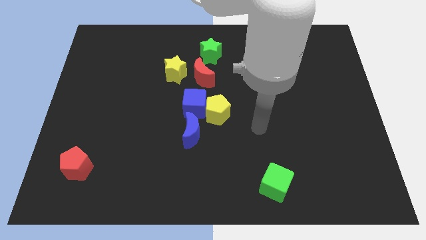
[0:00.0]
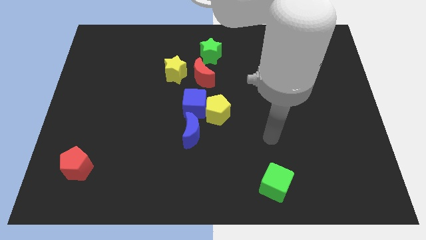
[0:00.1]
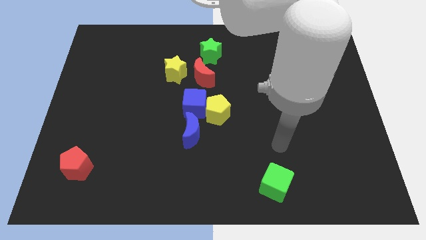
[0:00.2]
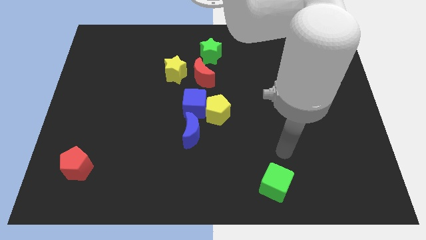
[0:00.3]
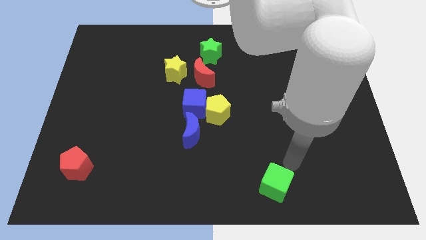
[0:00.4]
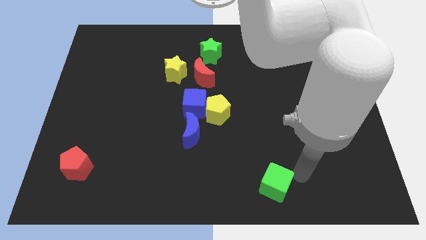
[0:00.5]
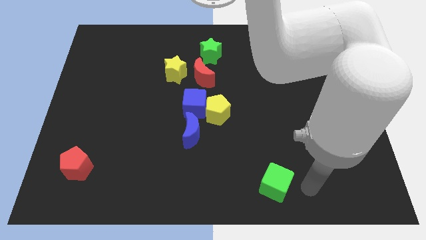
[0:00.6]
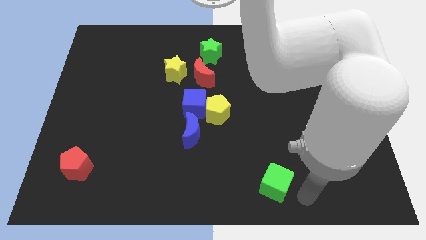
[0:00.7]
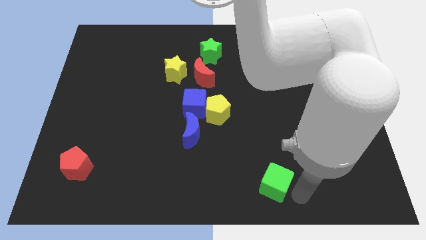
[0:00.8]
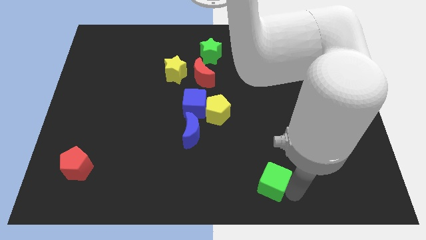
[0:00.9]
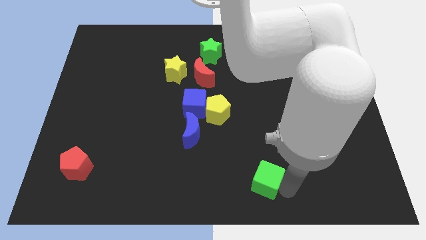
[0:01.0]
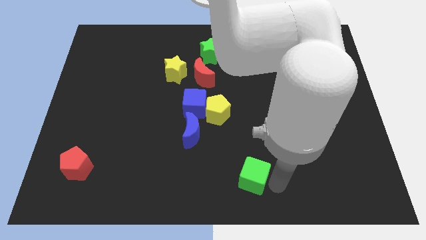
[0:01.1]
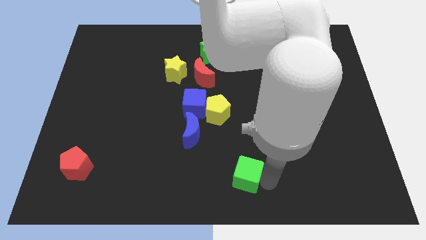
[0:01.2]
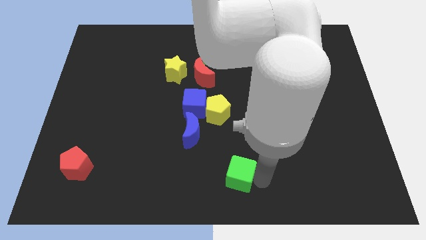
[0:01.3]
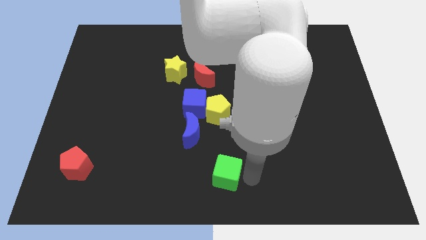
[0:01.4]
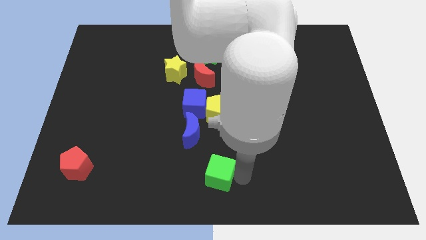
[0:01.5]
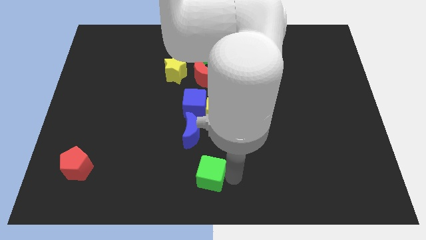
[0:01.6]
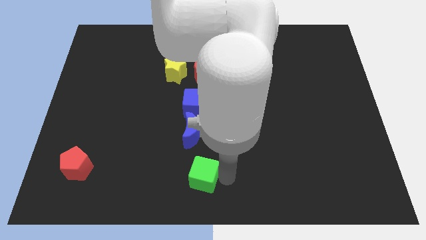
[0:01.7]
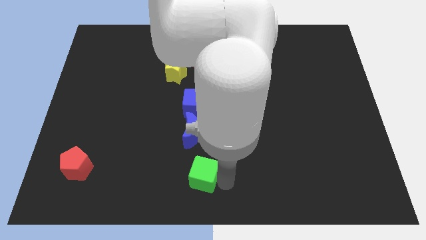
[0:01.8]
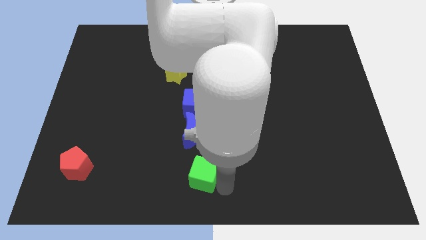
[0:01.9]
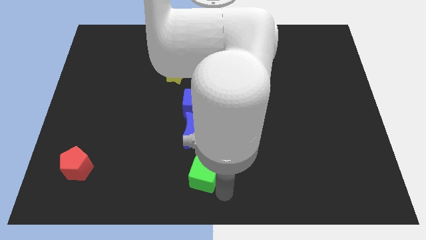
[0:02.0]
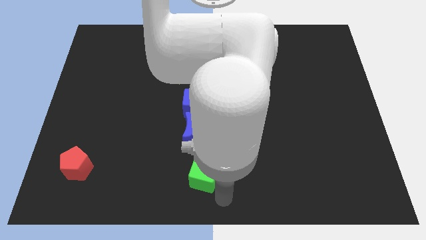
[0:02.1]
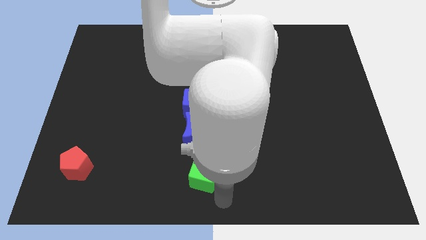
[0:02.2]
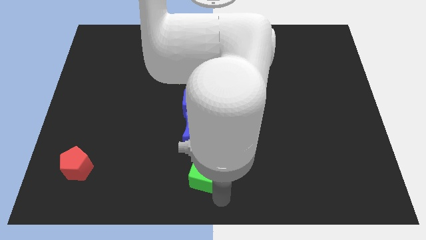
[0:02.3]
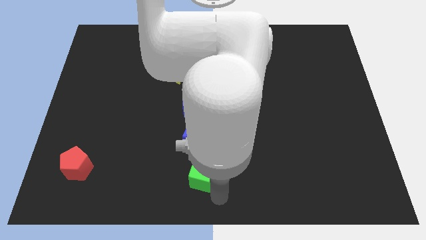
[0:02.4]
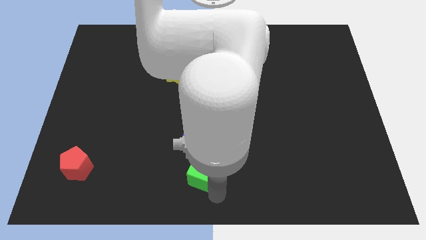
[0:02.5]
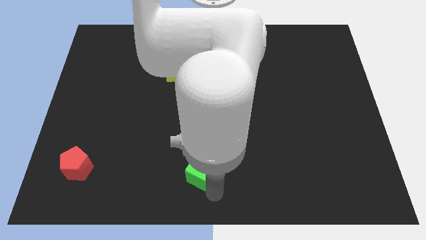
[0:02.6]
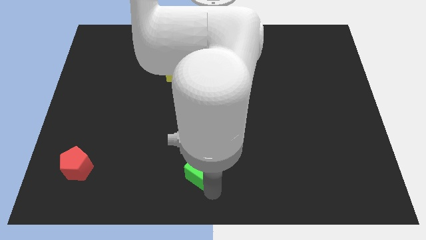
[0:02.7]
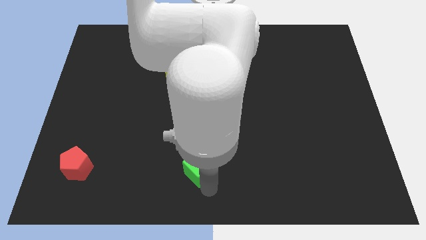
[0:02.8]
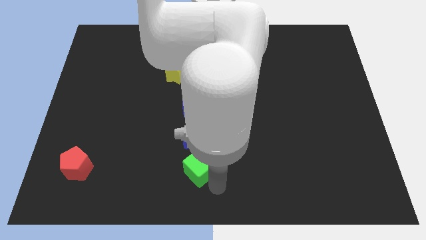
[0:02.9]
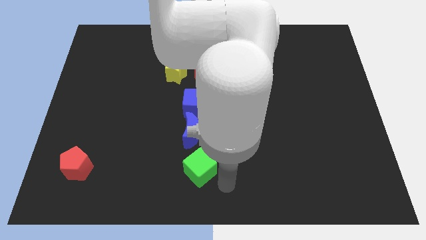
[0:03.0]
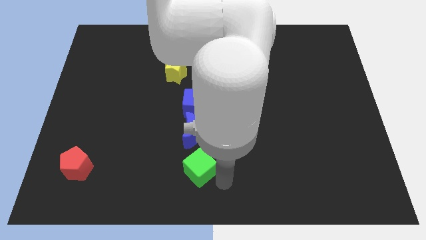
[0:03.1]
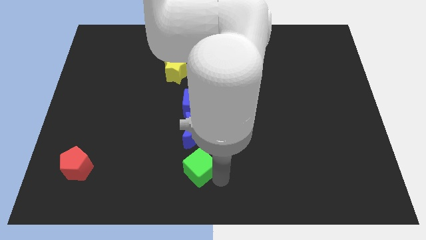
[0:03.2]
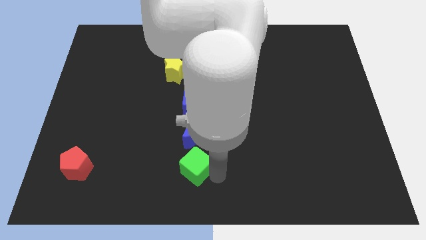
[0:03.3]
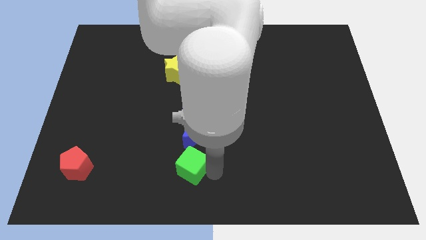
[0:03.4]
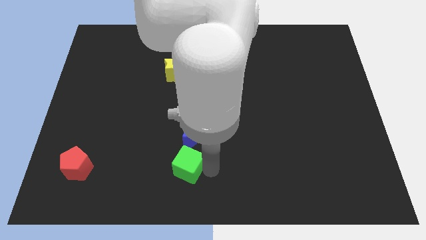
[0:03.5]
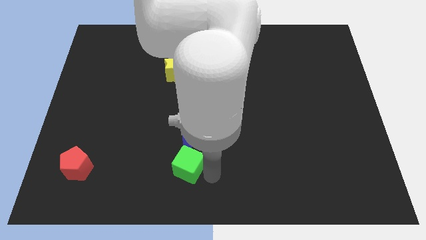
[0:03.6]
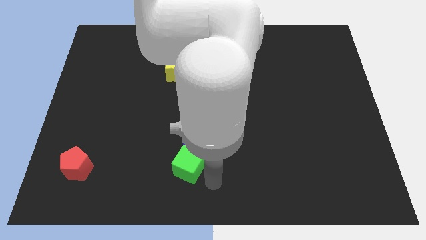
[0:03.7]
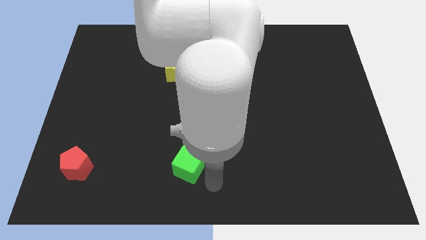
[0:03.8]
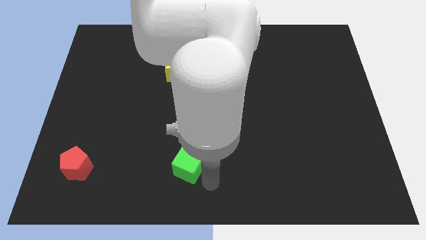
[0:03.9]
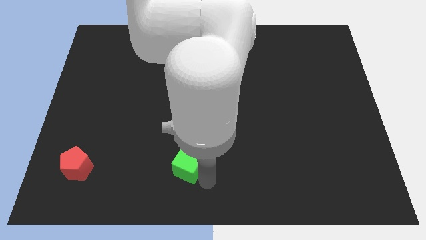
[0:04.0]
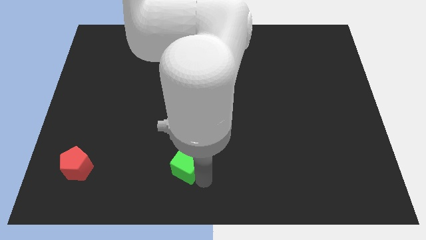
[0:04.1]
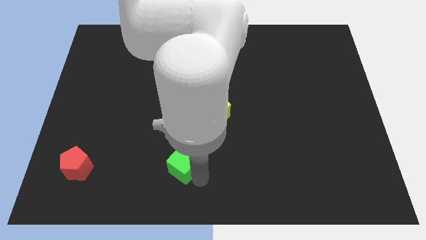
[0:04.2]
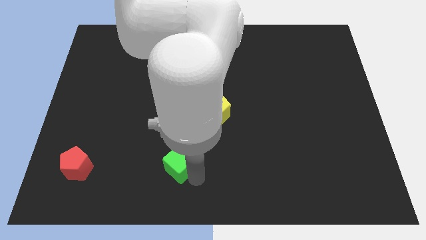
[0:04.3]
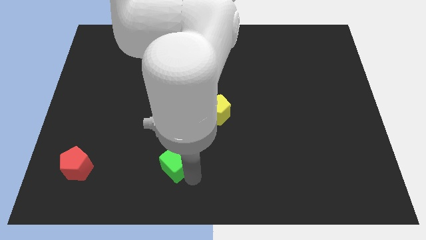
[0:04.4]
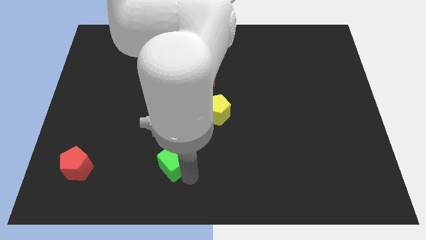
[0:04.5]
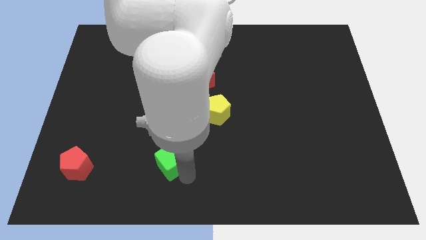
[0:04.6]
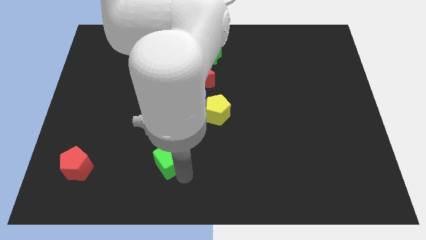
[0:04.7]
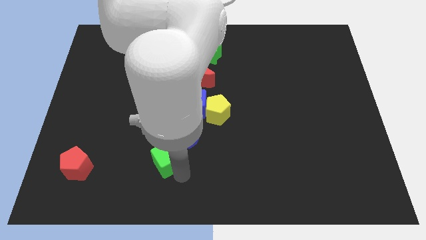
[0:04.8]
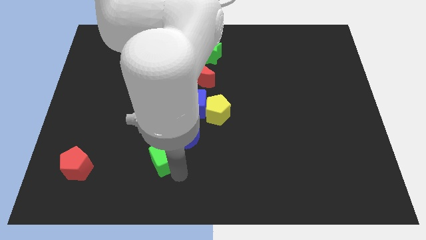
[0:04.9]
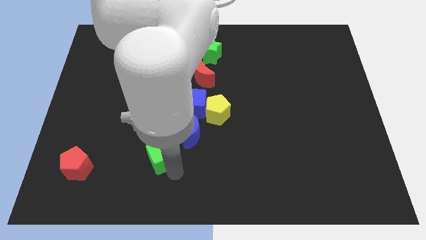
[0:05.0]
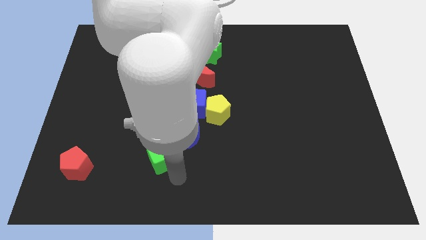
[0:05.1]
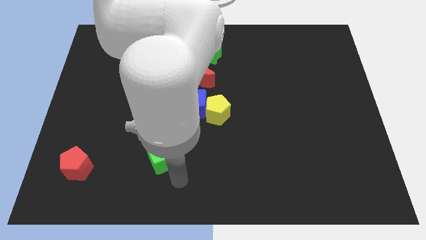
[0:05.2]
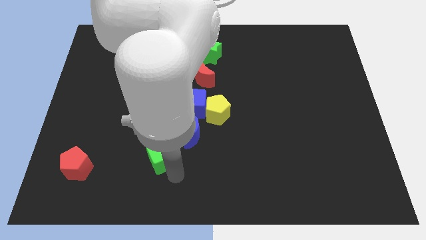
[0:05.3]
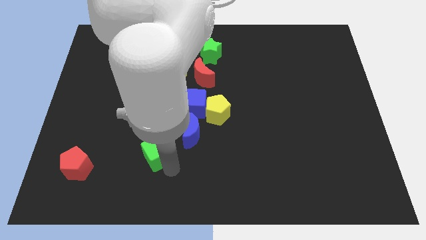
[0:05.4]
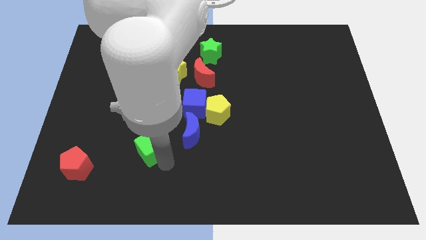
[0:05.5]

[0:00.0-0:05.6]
push the green cube just left of the blue moon

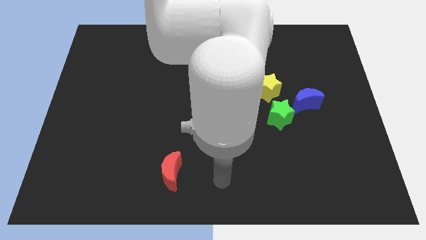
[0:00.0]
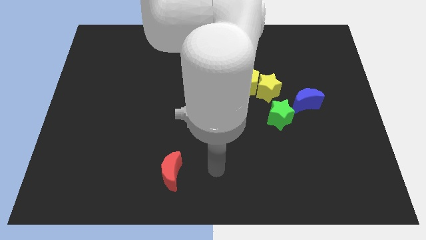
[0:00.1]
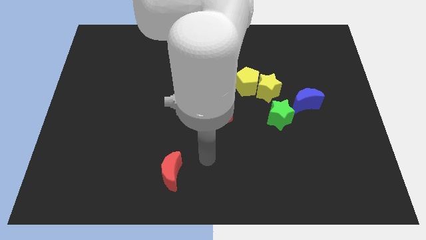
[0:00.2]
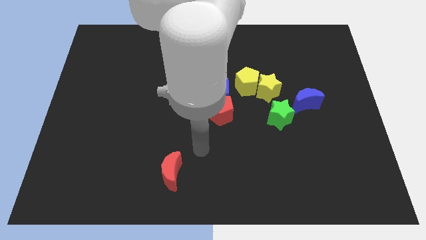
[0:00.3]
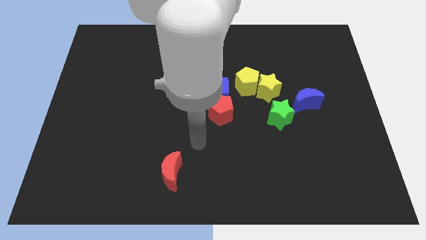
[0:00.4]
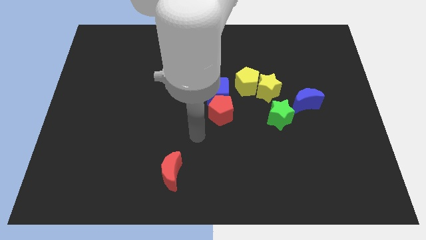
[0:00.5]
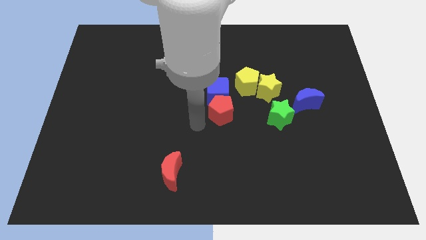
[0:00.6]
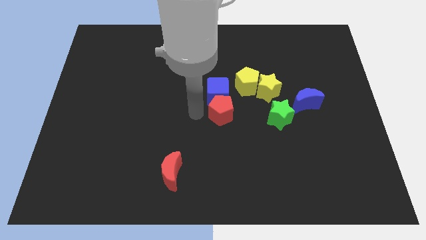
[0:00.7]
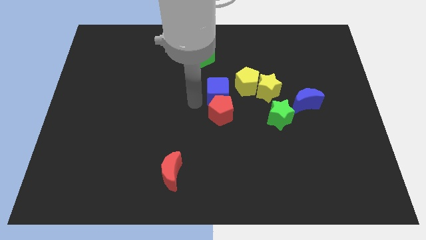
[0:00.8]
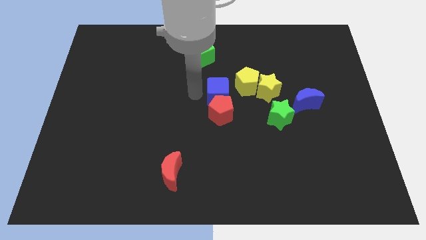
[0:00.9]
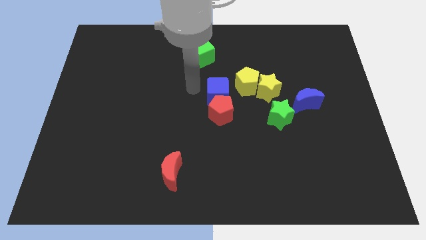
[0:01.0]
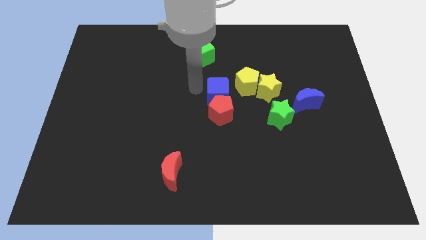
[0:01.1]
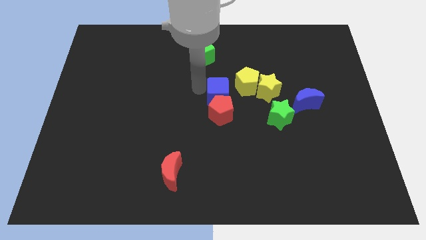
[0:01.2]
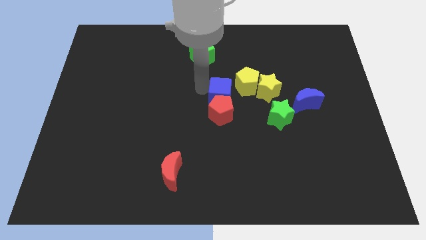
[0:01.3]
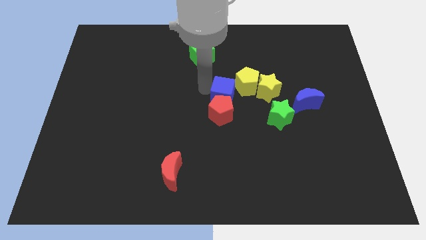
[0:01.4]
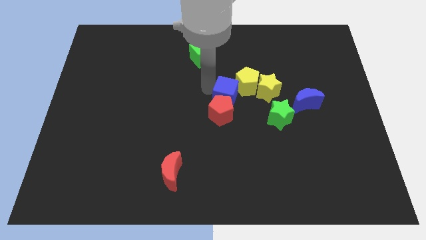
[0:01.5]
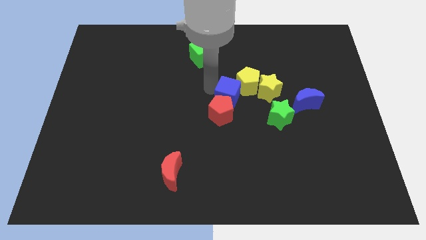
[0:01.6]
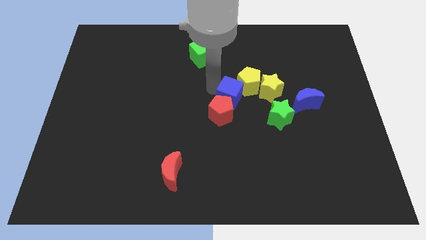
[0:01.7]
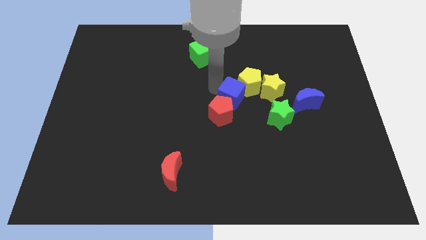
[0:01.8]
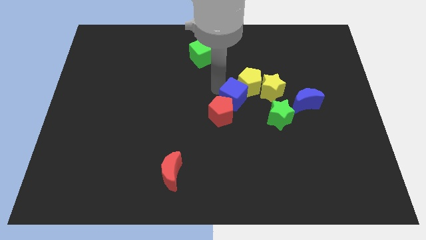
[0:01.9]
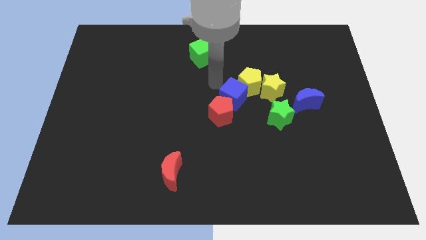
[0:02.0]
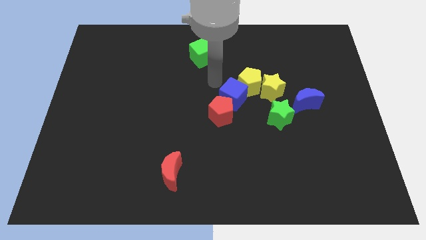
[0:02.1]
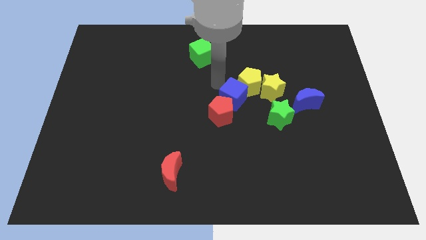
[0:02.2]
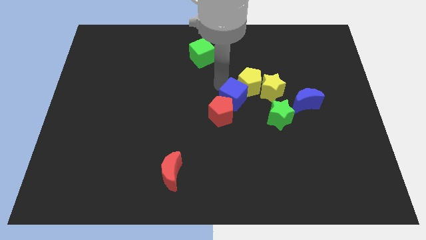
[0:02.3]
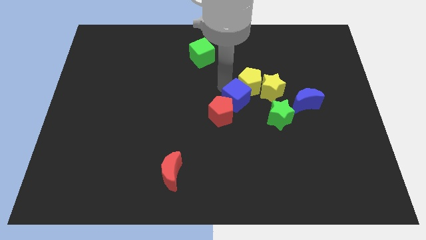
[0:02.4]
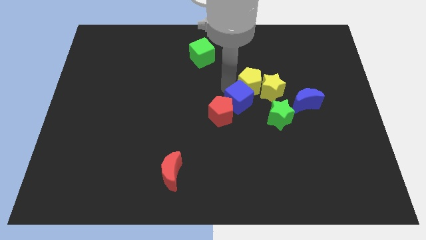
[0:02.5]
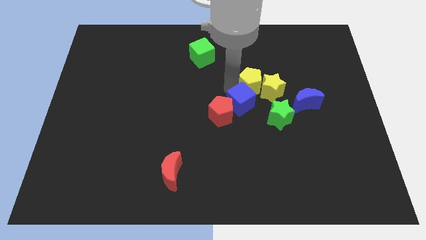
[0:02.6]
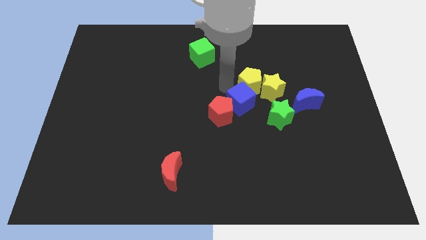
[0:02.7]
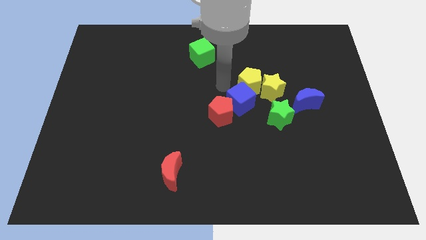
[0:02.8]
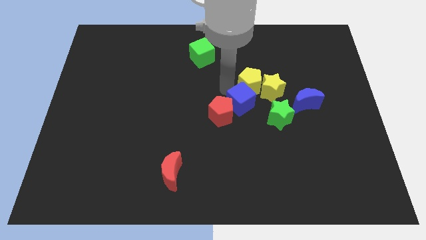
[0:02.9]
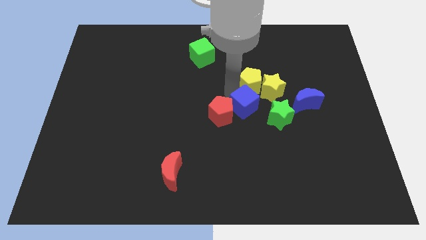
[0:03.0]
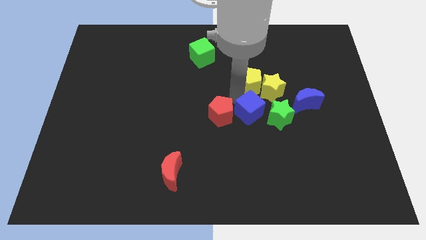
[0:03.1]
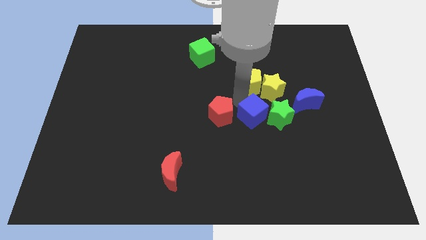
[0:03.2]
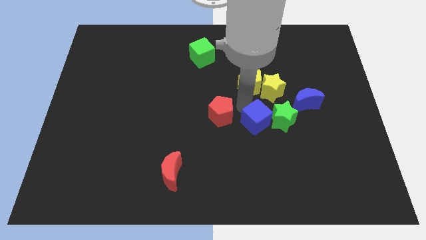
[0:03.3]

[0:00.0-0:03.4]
move the blue cube to the bottom side of the yellow star
